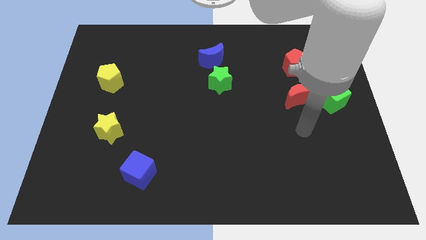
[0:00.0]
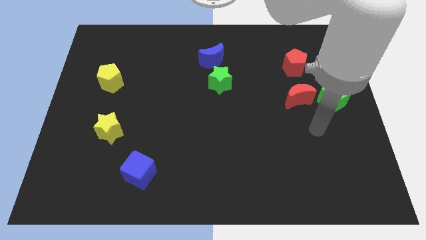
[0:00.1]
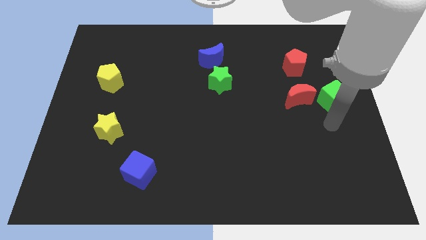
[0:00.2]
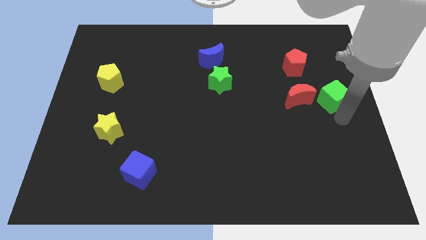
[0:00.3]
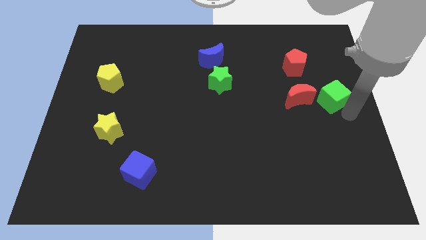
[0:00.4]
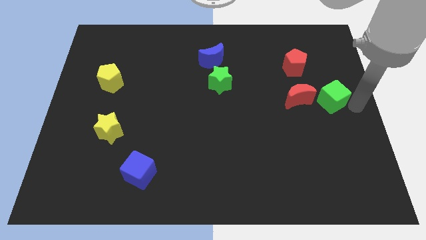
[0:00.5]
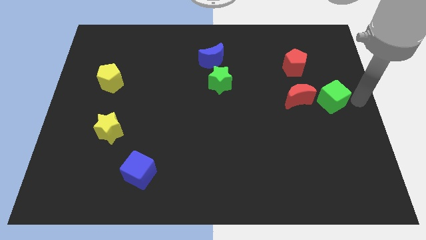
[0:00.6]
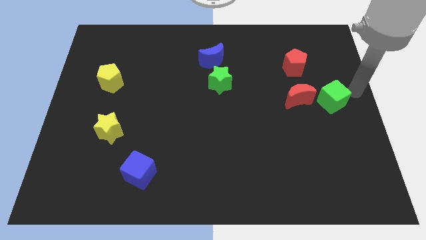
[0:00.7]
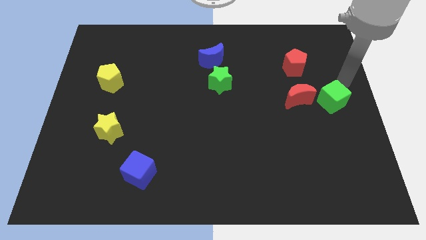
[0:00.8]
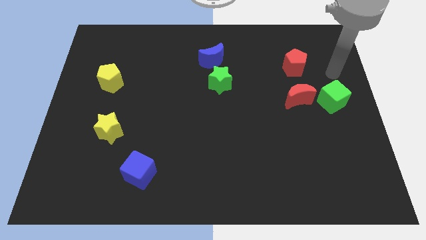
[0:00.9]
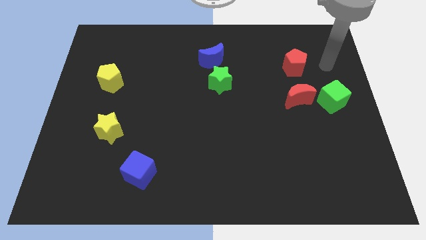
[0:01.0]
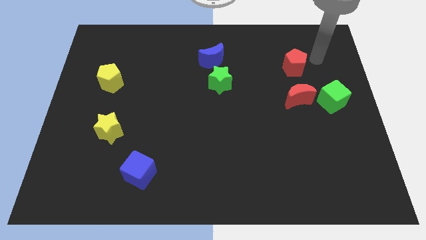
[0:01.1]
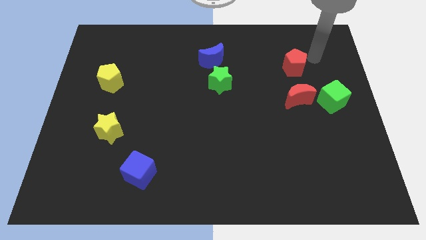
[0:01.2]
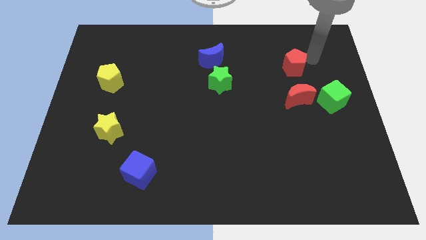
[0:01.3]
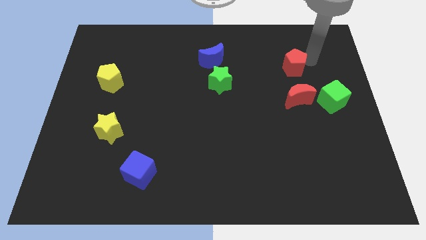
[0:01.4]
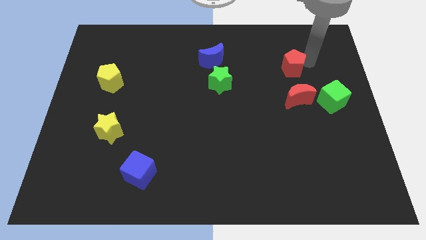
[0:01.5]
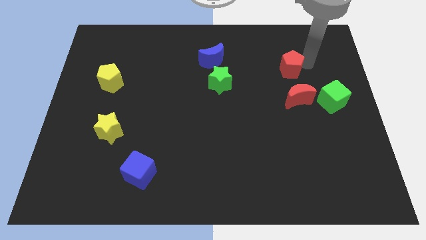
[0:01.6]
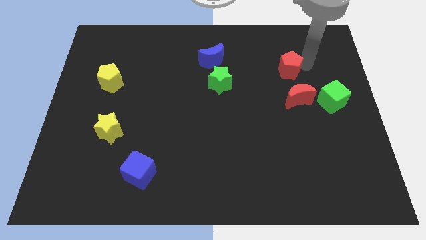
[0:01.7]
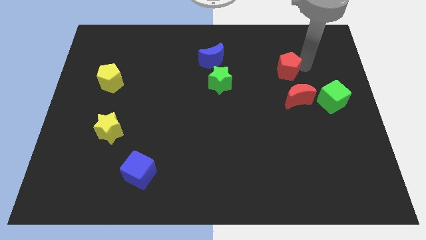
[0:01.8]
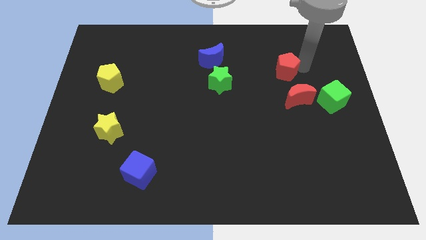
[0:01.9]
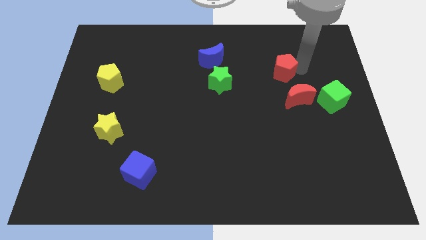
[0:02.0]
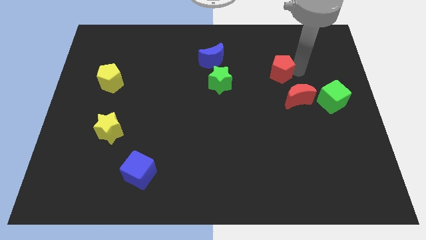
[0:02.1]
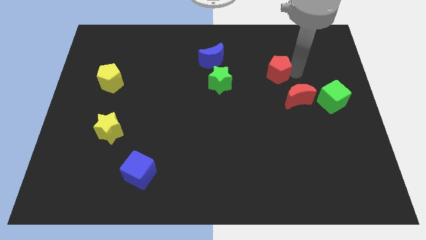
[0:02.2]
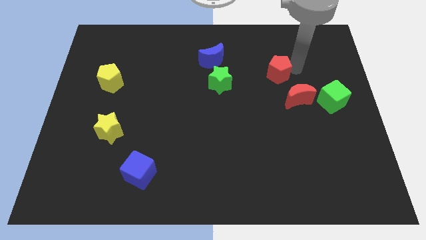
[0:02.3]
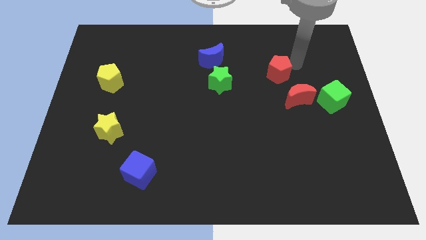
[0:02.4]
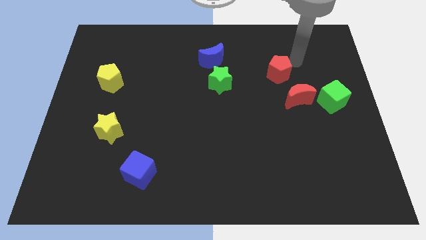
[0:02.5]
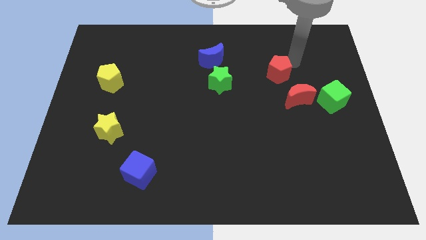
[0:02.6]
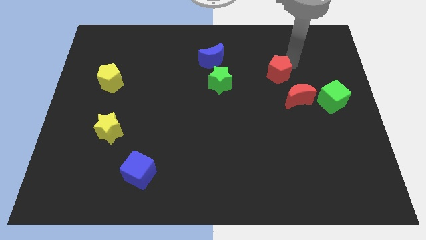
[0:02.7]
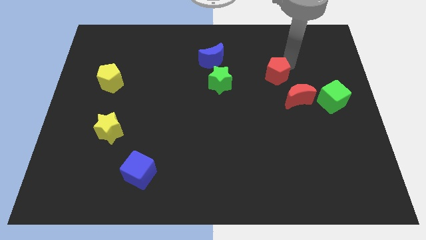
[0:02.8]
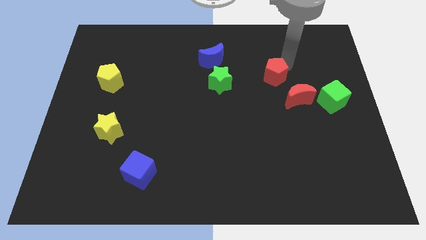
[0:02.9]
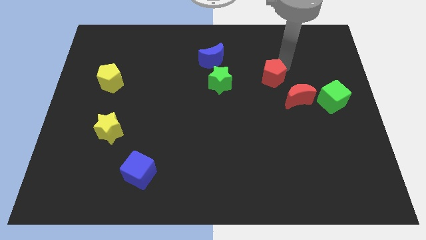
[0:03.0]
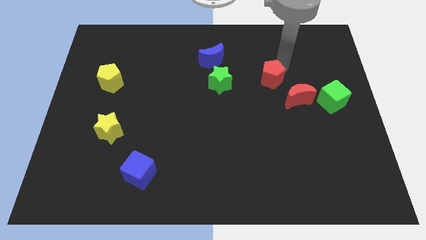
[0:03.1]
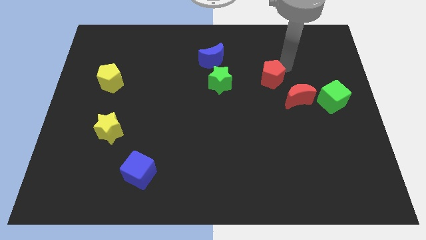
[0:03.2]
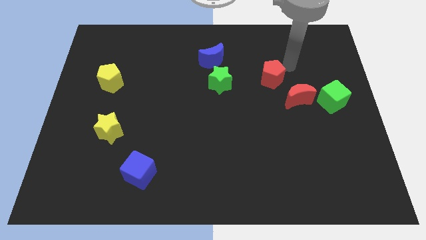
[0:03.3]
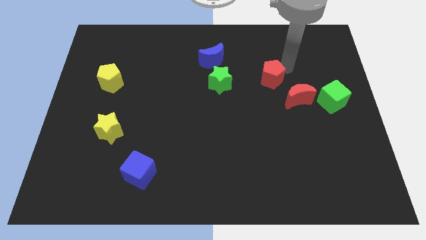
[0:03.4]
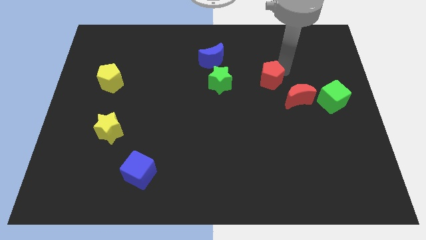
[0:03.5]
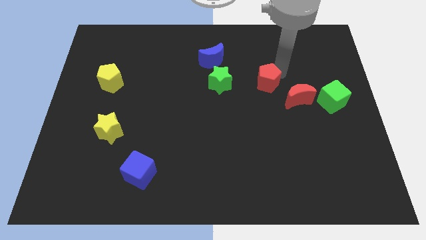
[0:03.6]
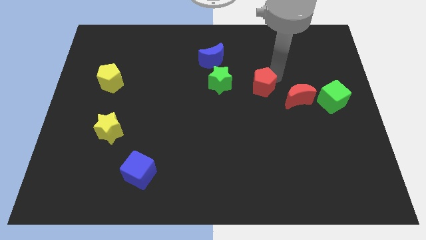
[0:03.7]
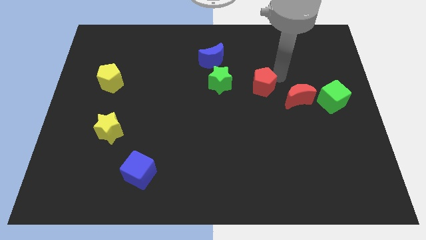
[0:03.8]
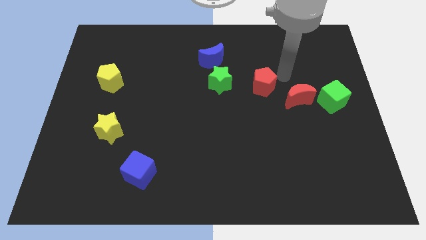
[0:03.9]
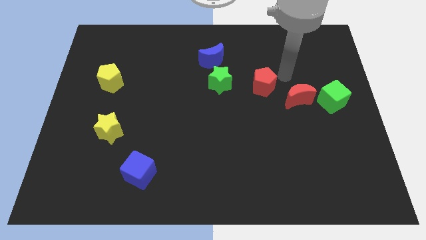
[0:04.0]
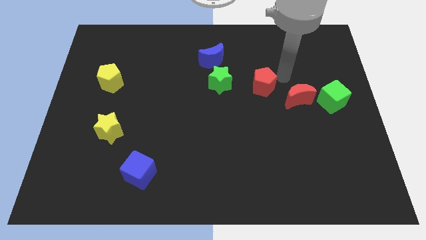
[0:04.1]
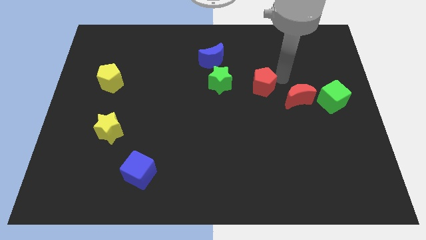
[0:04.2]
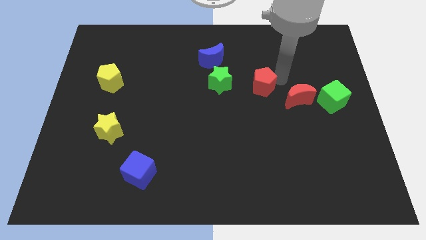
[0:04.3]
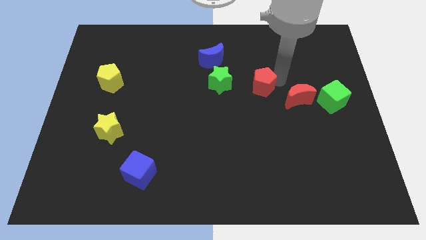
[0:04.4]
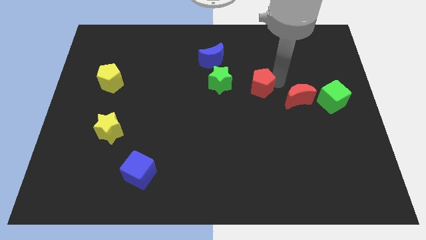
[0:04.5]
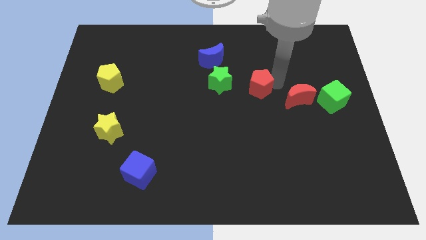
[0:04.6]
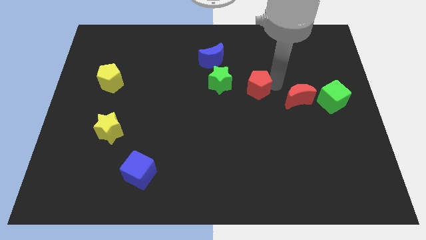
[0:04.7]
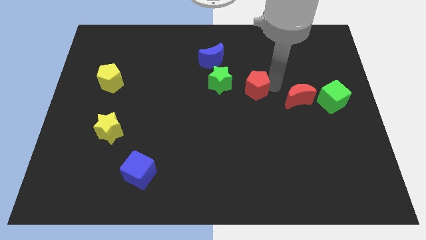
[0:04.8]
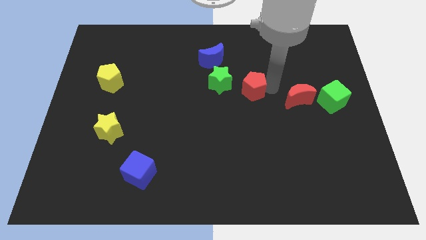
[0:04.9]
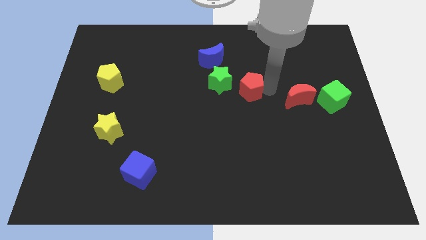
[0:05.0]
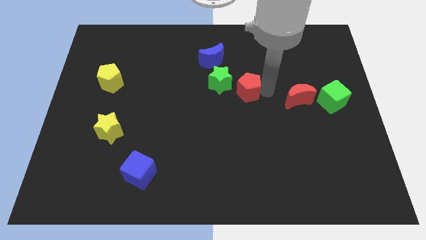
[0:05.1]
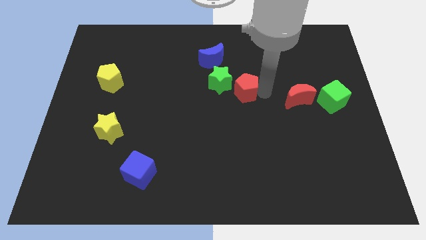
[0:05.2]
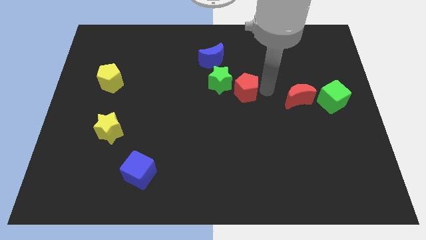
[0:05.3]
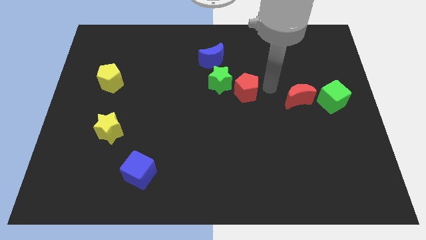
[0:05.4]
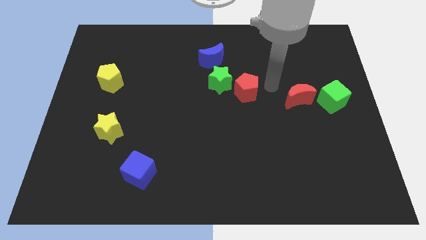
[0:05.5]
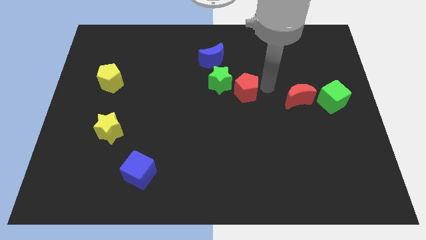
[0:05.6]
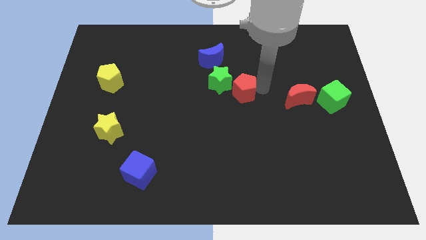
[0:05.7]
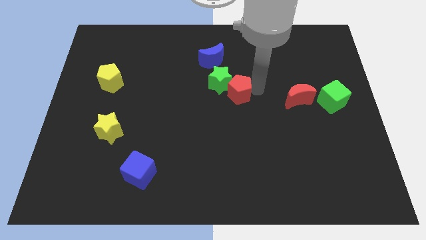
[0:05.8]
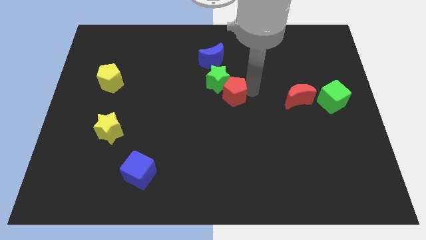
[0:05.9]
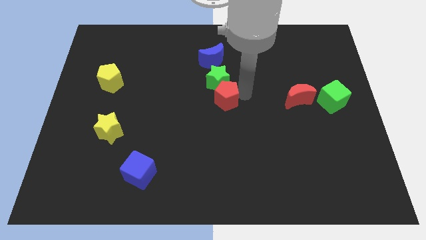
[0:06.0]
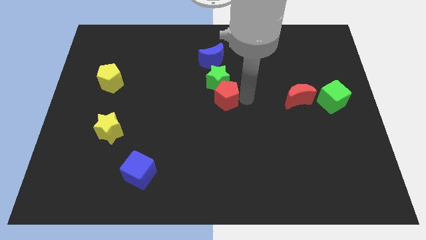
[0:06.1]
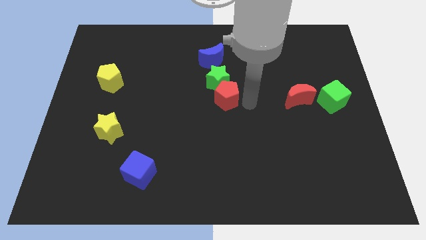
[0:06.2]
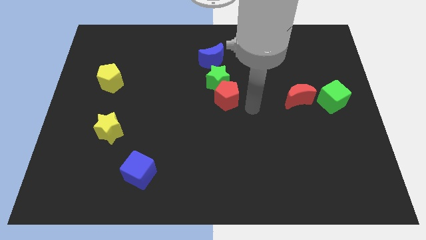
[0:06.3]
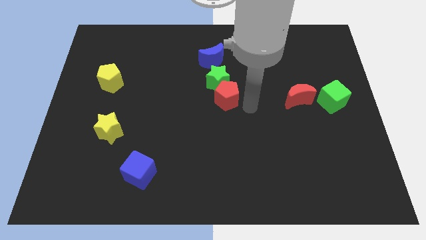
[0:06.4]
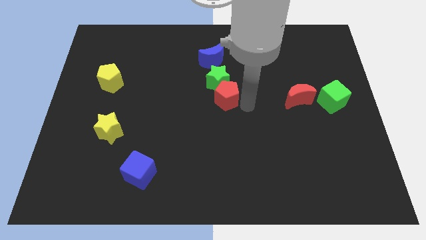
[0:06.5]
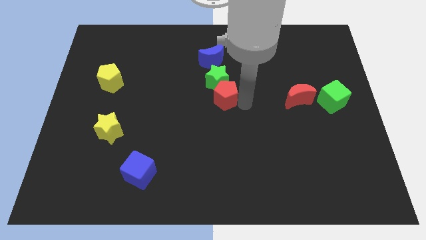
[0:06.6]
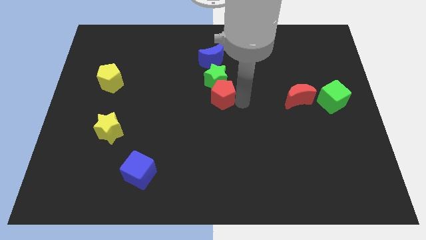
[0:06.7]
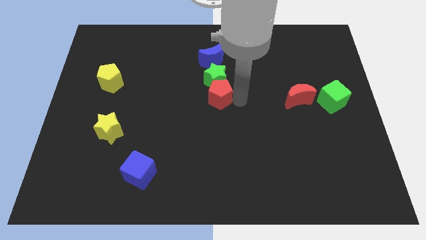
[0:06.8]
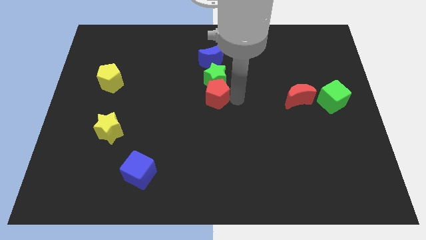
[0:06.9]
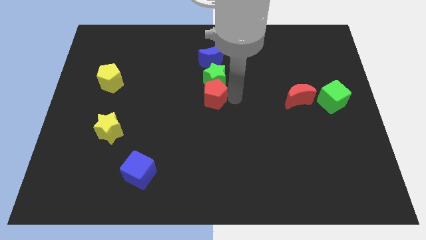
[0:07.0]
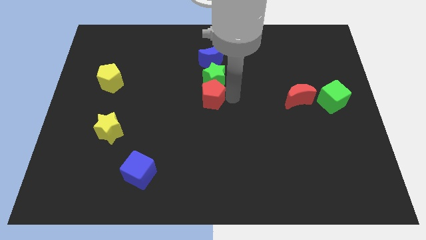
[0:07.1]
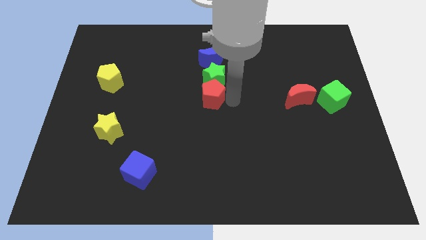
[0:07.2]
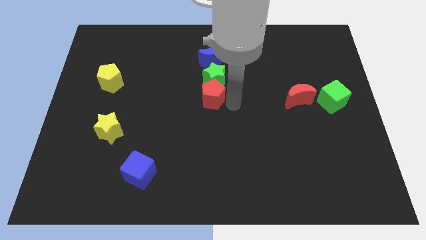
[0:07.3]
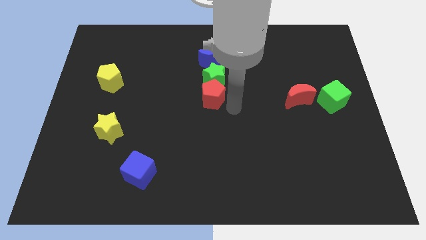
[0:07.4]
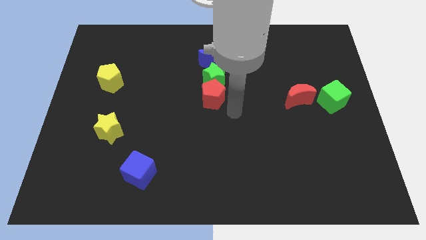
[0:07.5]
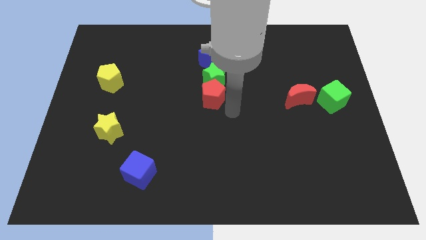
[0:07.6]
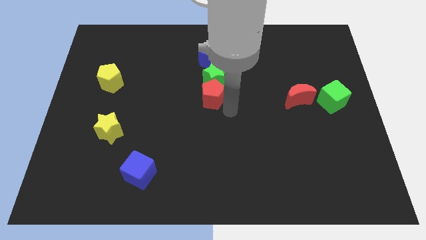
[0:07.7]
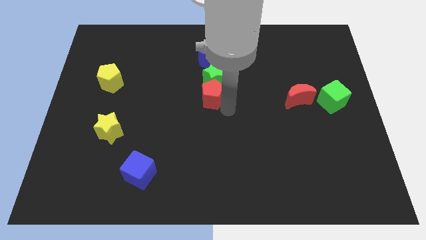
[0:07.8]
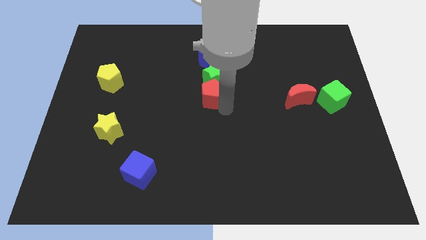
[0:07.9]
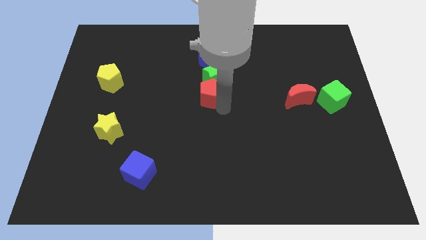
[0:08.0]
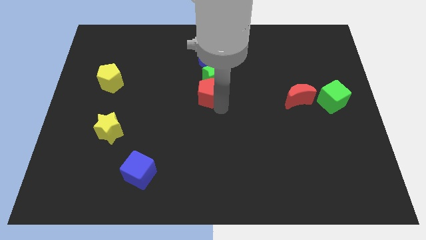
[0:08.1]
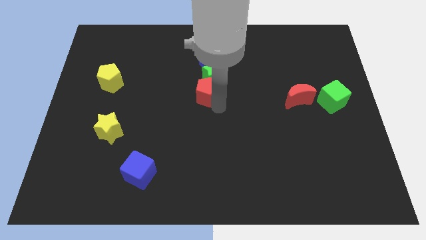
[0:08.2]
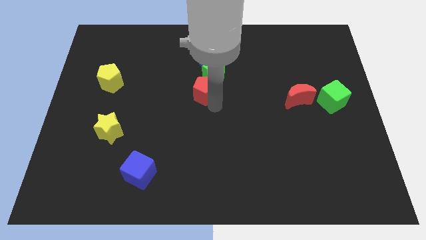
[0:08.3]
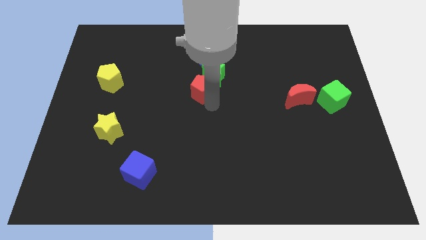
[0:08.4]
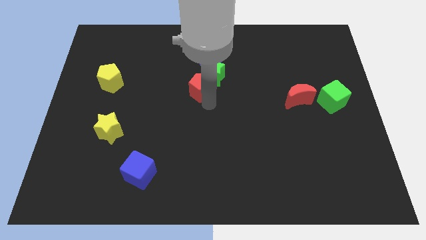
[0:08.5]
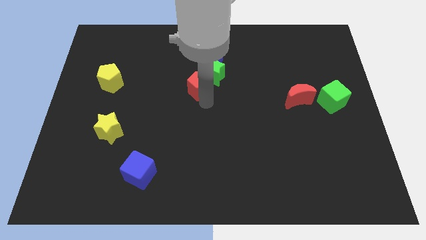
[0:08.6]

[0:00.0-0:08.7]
slide the red pentagon to the bottom left of the blue moon
